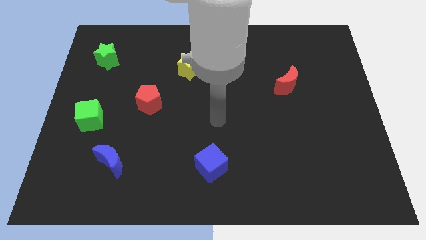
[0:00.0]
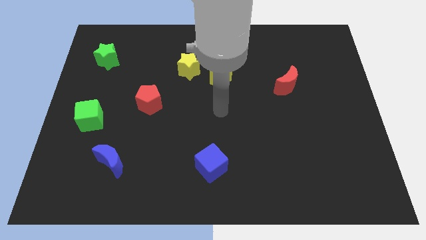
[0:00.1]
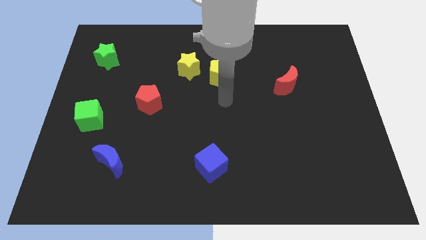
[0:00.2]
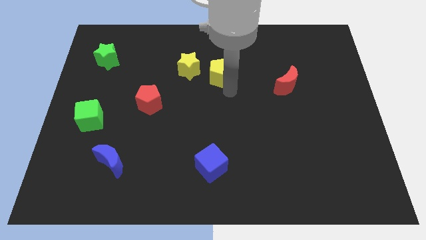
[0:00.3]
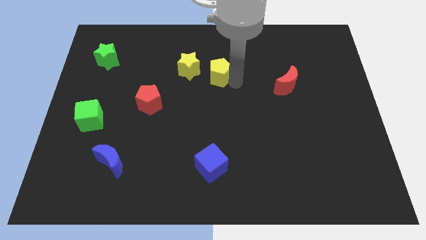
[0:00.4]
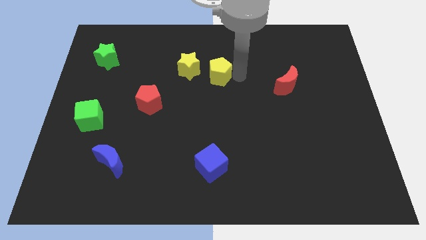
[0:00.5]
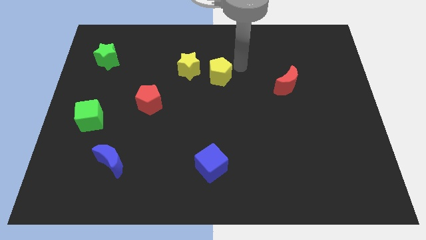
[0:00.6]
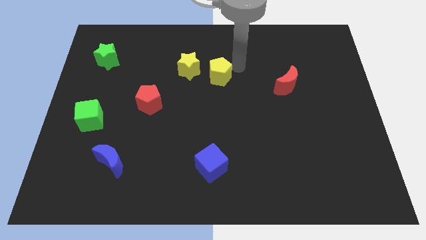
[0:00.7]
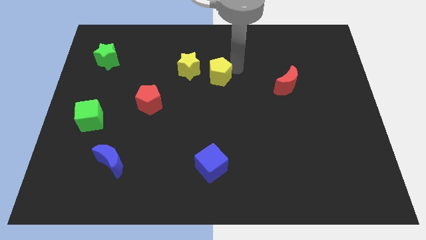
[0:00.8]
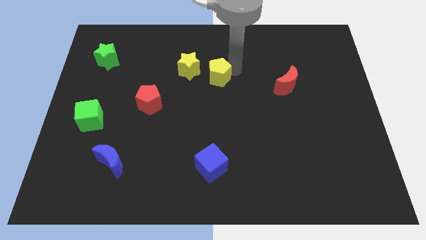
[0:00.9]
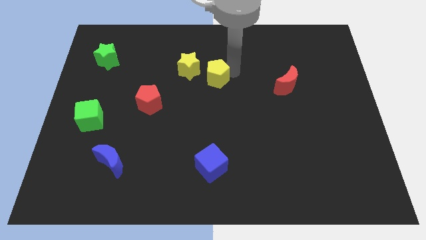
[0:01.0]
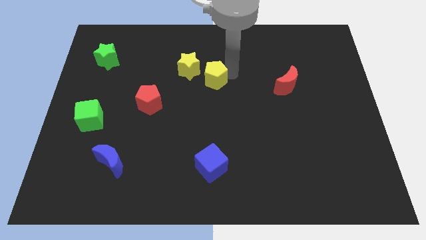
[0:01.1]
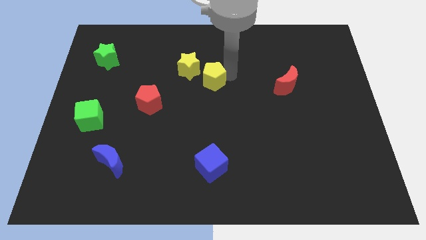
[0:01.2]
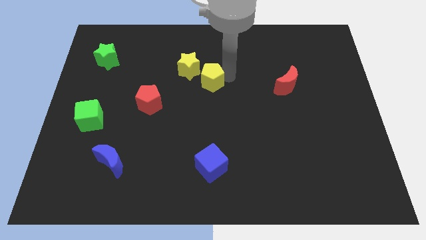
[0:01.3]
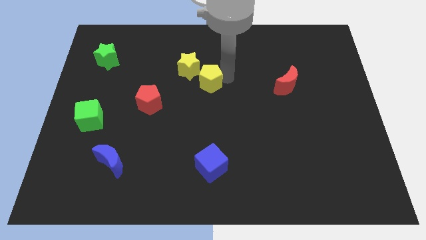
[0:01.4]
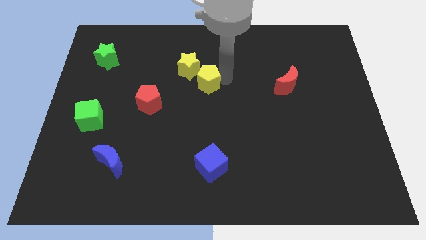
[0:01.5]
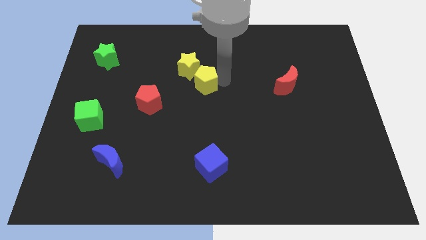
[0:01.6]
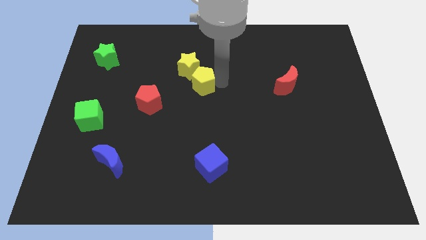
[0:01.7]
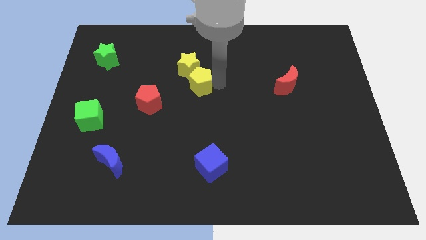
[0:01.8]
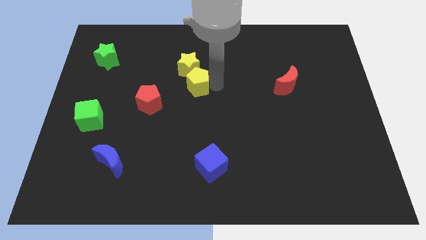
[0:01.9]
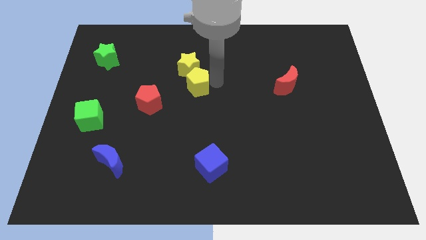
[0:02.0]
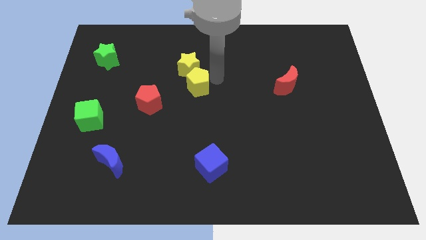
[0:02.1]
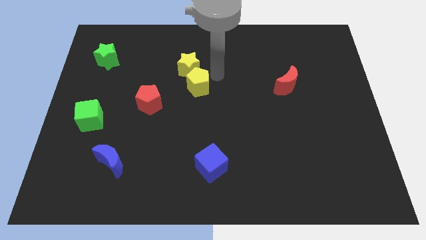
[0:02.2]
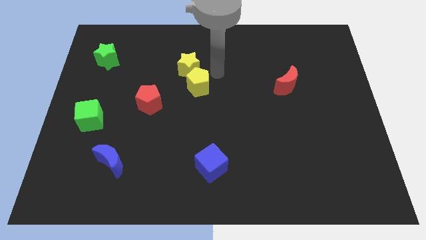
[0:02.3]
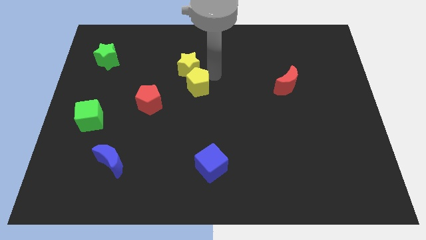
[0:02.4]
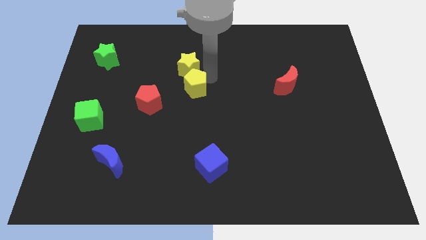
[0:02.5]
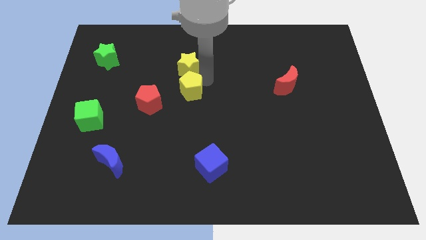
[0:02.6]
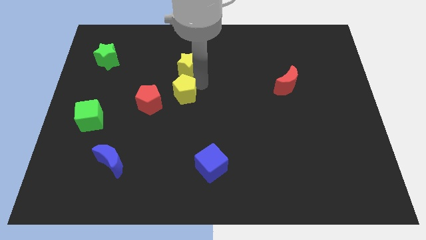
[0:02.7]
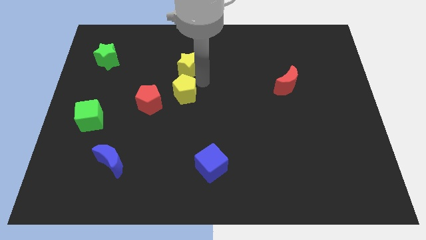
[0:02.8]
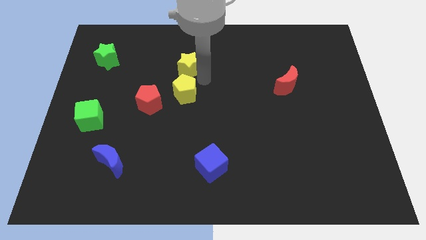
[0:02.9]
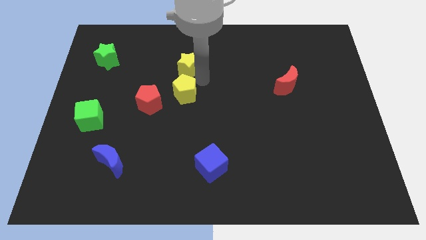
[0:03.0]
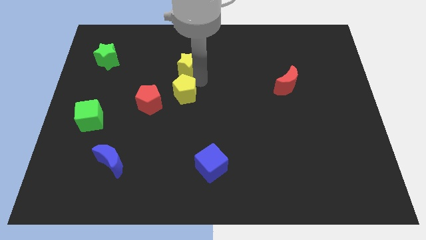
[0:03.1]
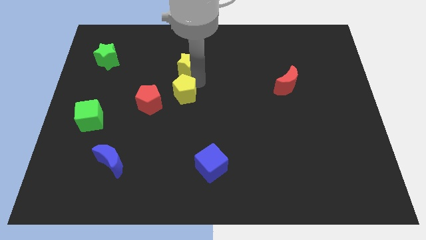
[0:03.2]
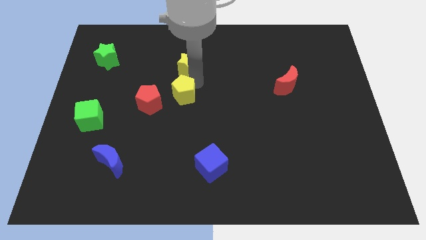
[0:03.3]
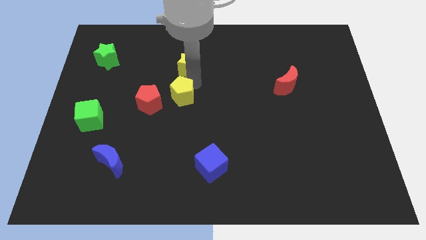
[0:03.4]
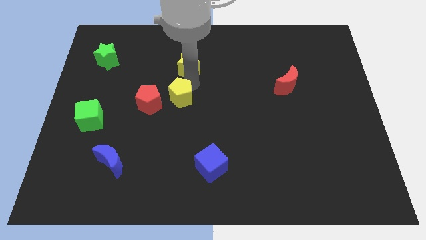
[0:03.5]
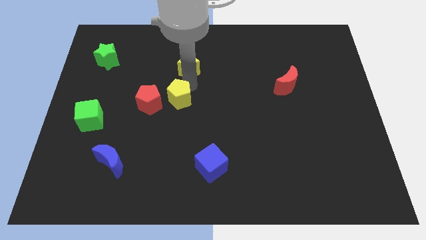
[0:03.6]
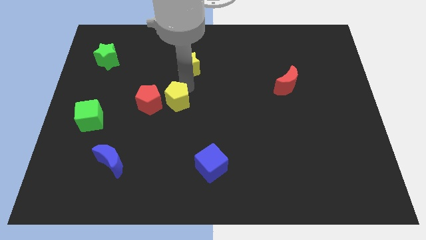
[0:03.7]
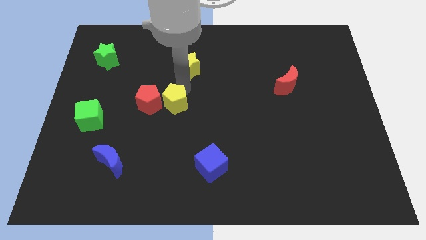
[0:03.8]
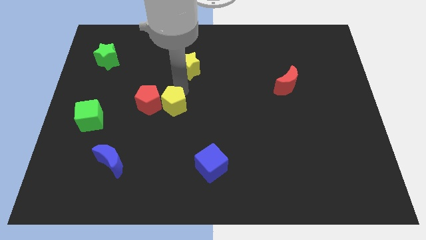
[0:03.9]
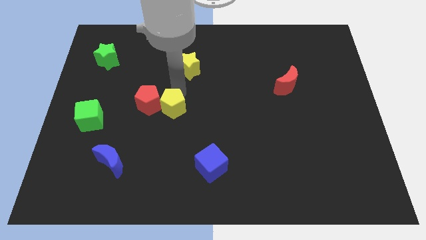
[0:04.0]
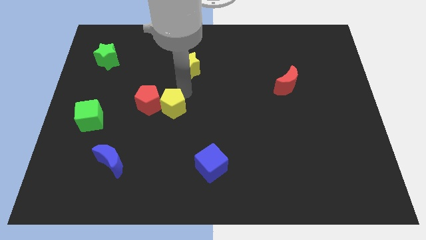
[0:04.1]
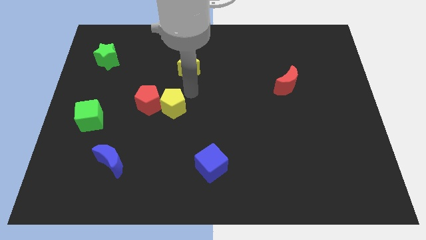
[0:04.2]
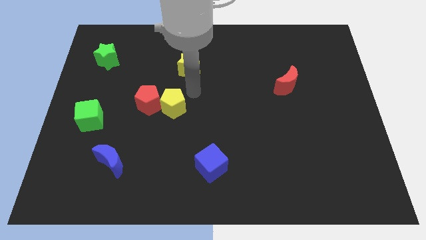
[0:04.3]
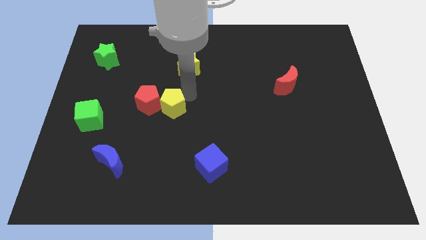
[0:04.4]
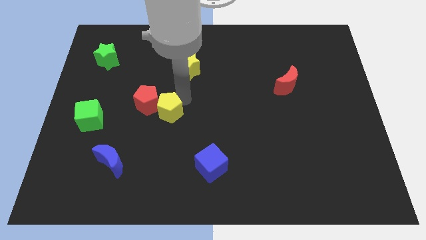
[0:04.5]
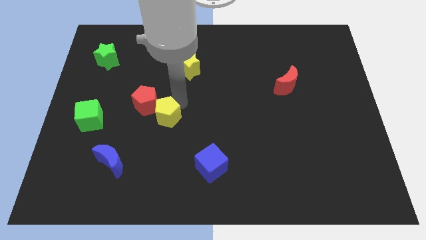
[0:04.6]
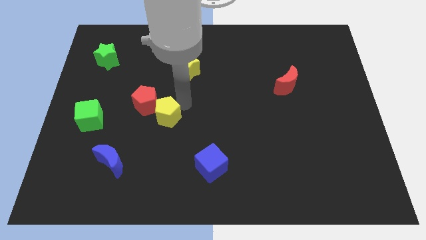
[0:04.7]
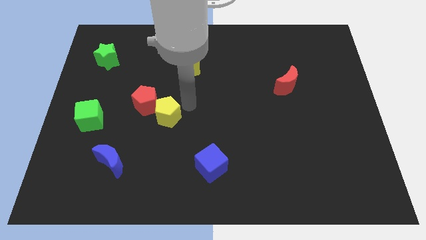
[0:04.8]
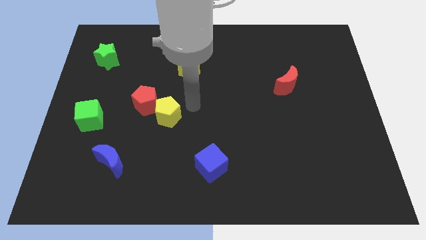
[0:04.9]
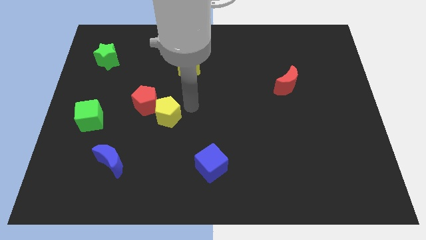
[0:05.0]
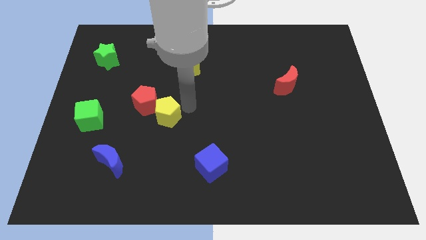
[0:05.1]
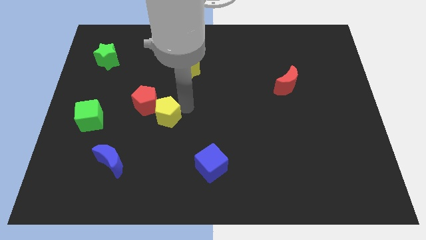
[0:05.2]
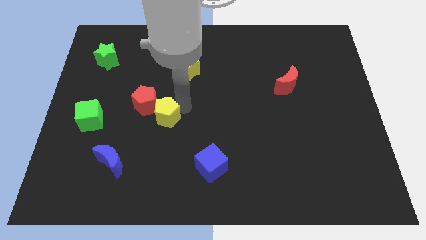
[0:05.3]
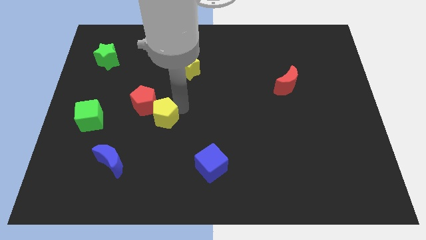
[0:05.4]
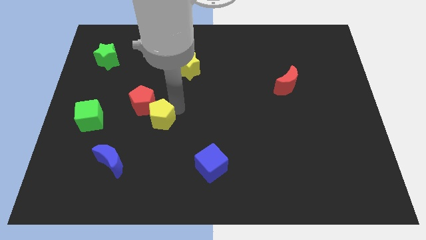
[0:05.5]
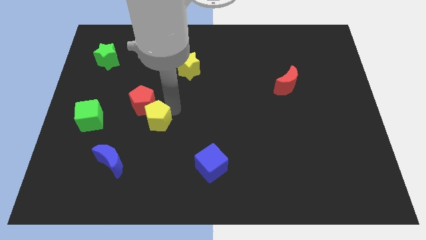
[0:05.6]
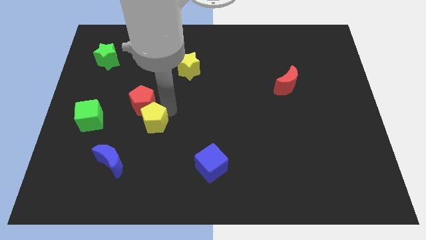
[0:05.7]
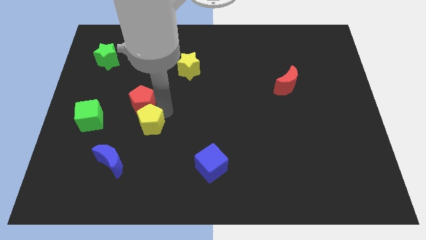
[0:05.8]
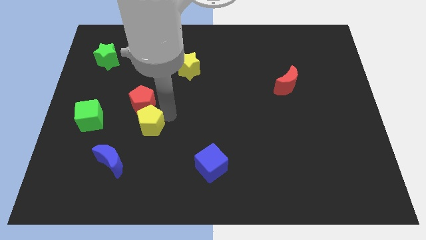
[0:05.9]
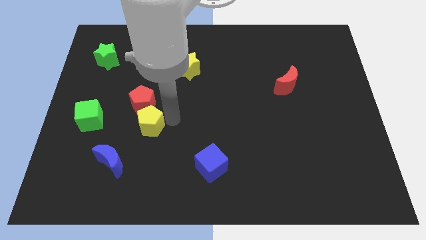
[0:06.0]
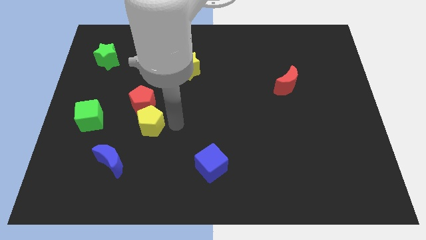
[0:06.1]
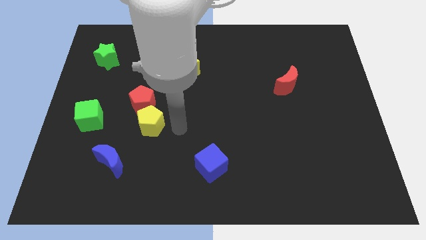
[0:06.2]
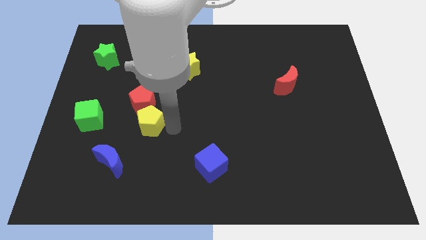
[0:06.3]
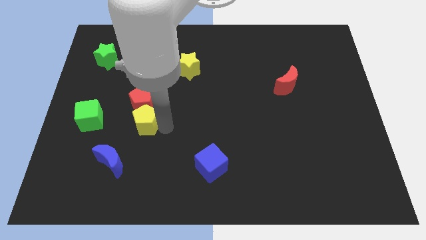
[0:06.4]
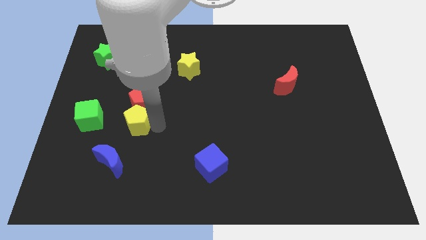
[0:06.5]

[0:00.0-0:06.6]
put the yellow pentagon to the bottom left side of the red pentagon

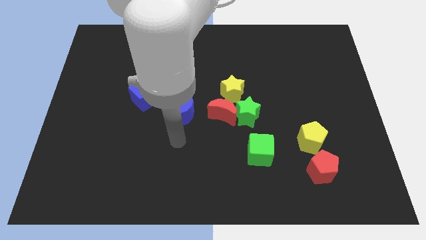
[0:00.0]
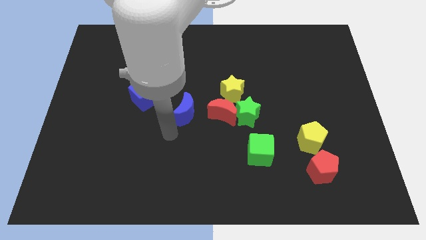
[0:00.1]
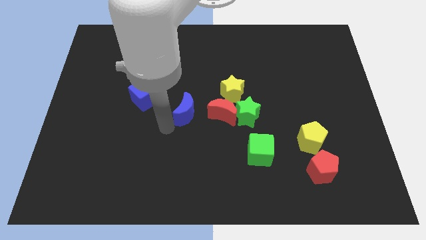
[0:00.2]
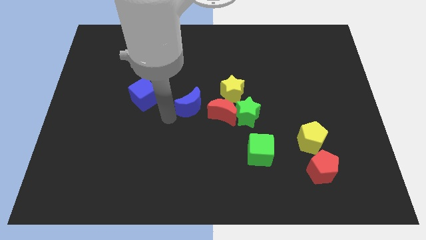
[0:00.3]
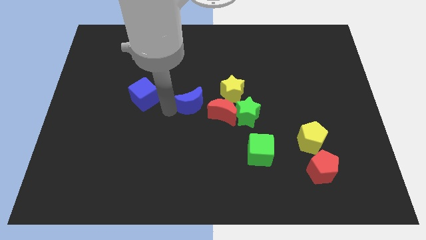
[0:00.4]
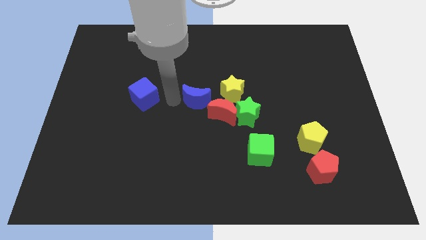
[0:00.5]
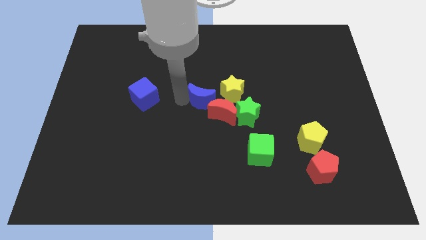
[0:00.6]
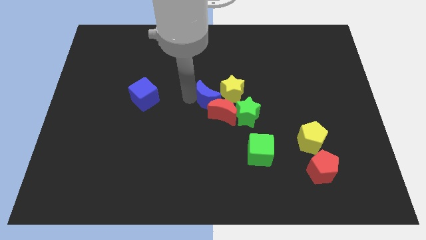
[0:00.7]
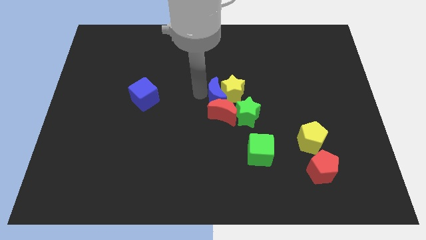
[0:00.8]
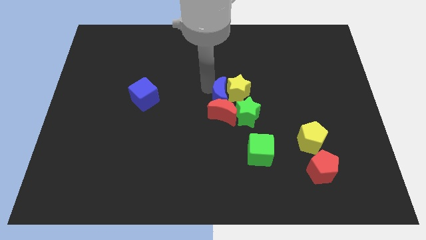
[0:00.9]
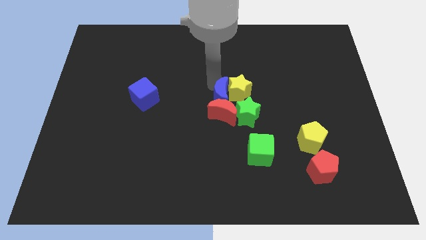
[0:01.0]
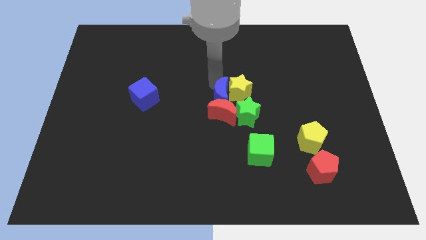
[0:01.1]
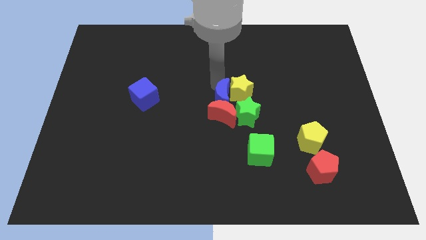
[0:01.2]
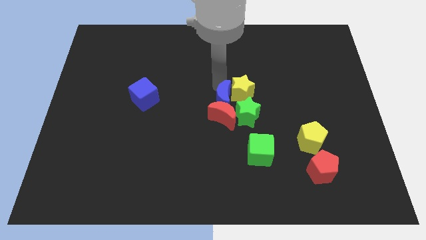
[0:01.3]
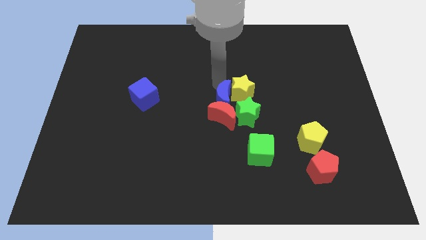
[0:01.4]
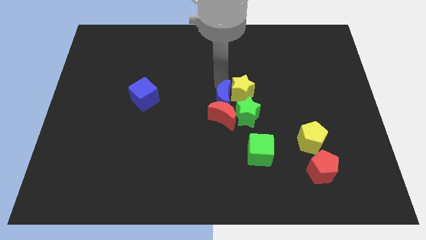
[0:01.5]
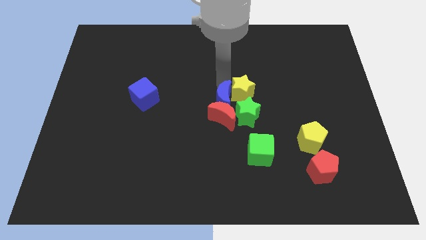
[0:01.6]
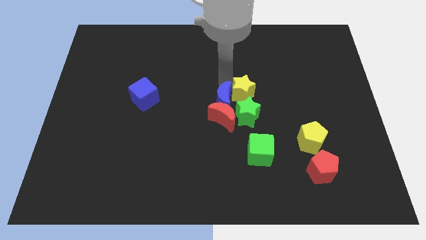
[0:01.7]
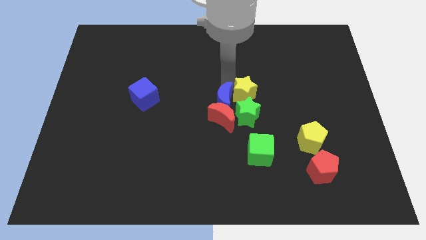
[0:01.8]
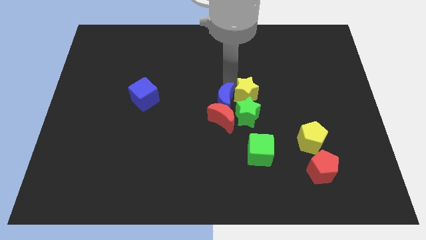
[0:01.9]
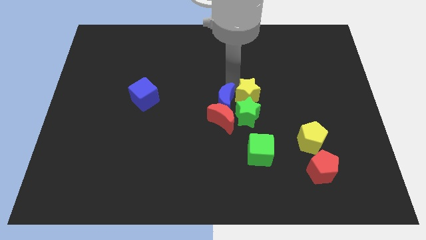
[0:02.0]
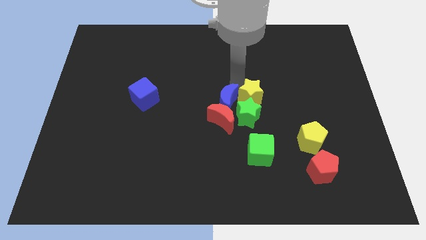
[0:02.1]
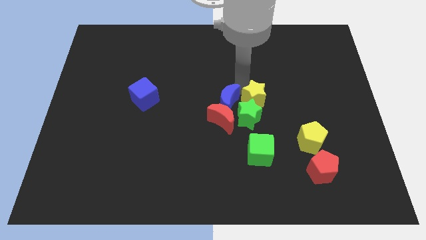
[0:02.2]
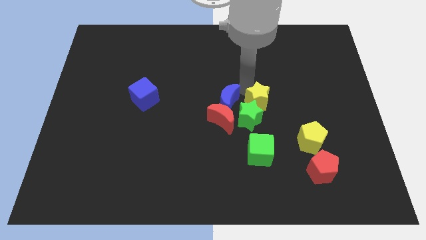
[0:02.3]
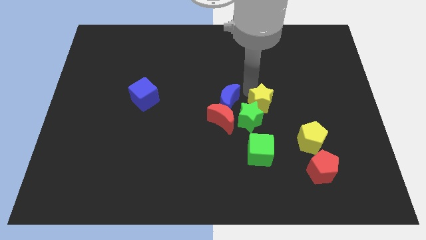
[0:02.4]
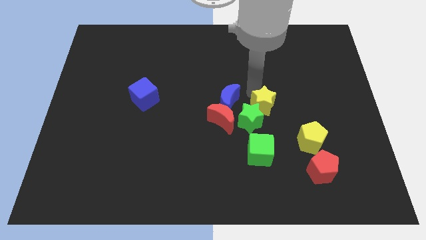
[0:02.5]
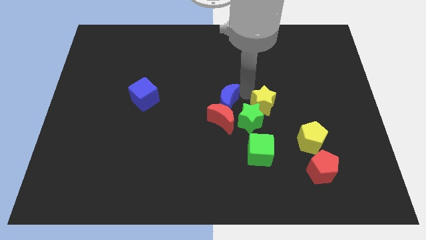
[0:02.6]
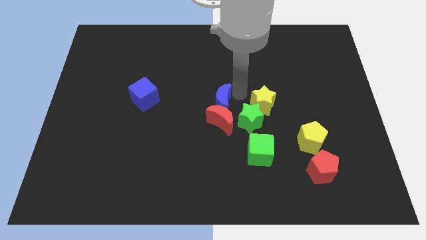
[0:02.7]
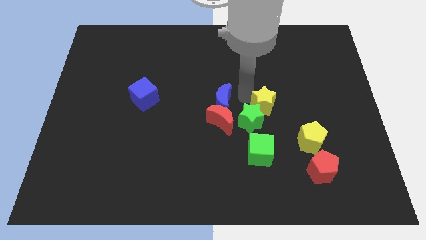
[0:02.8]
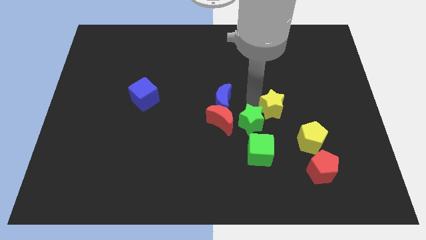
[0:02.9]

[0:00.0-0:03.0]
put the yellow star right of the green star
